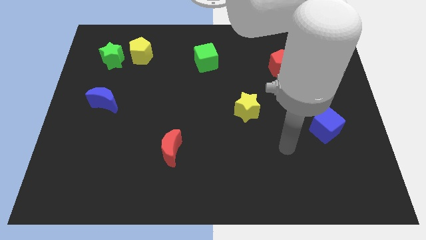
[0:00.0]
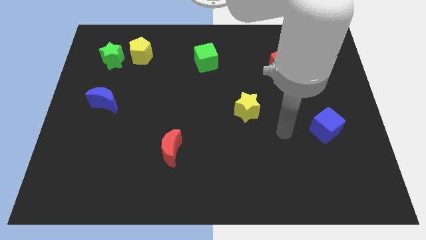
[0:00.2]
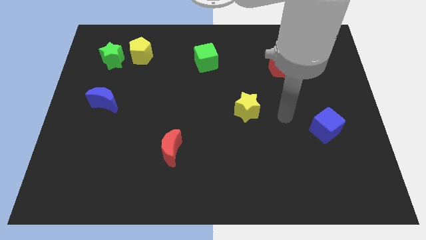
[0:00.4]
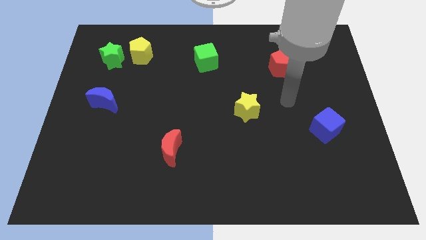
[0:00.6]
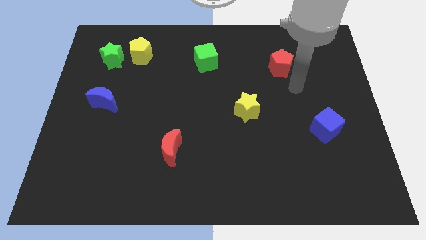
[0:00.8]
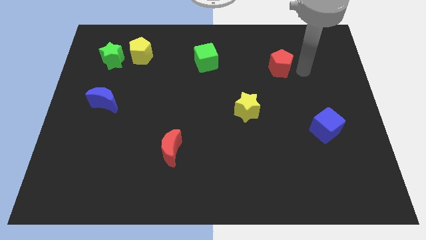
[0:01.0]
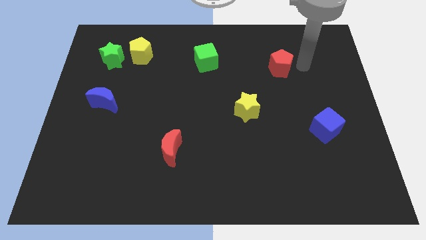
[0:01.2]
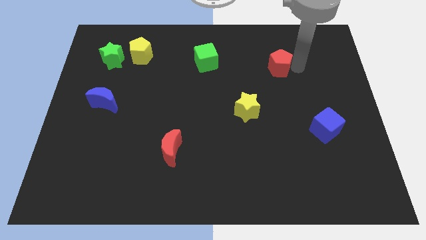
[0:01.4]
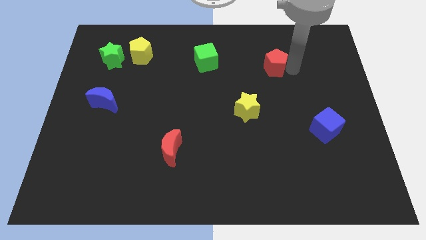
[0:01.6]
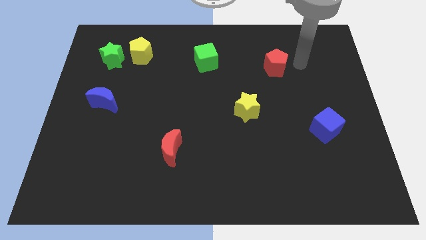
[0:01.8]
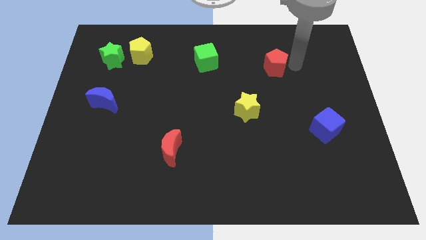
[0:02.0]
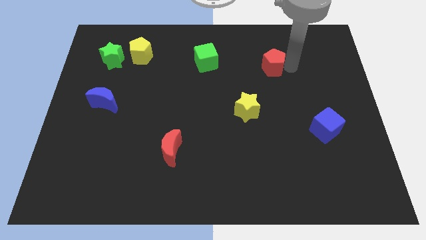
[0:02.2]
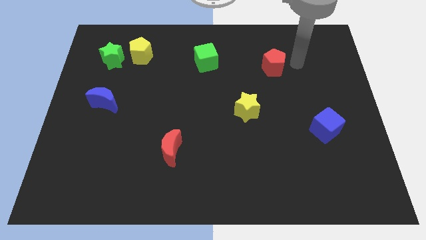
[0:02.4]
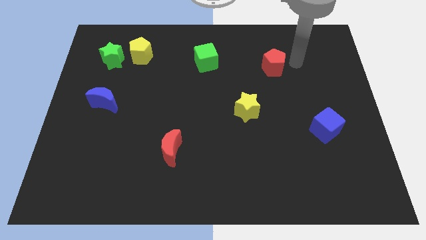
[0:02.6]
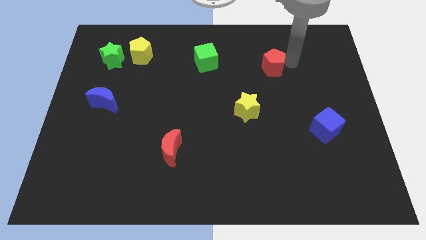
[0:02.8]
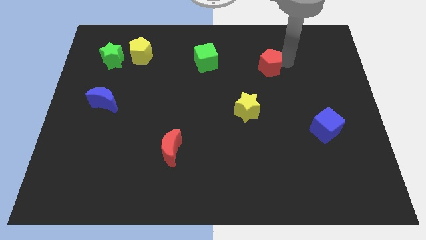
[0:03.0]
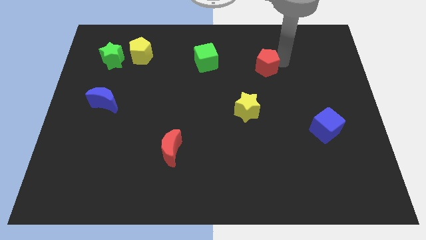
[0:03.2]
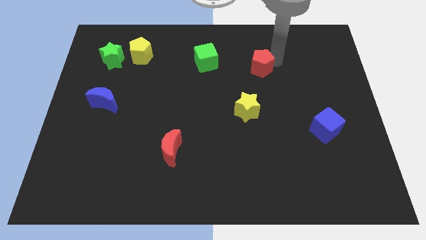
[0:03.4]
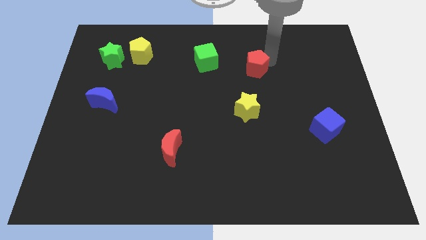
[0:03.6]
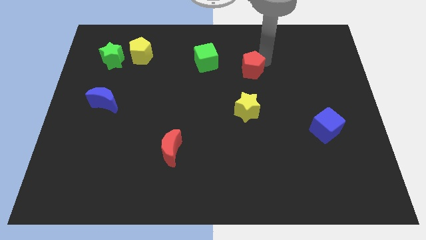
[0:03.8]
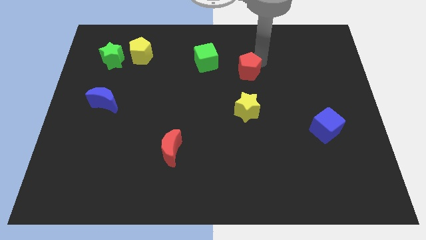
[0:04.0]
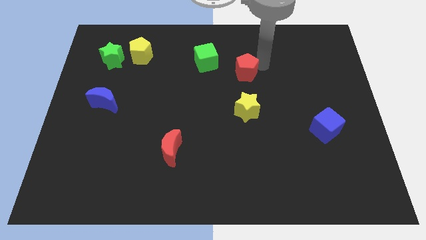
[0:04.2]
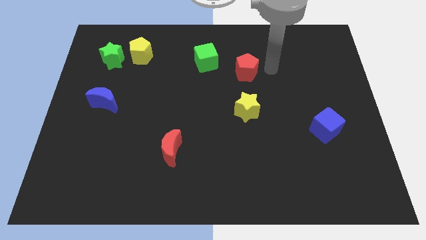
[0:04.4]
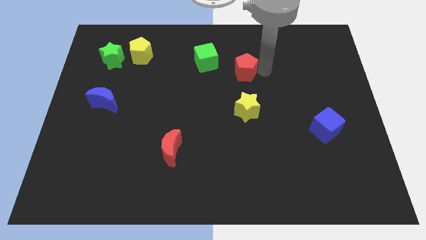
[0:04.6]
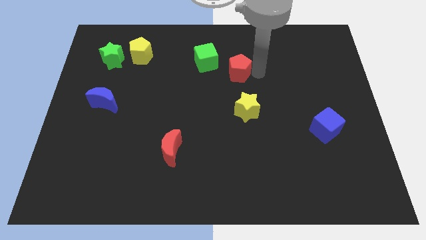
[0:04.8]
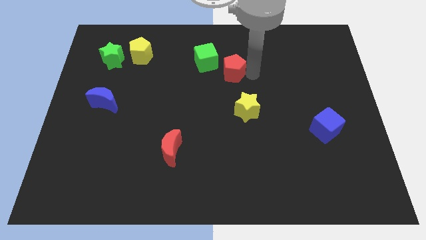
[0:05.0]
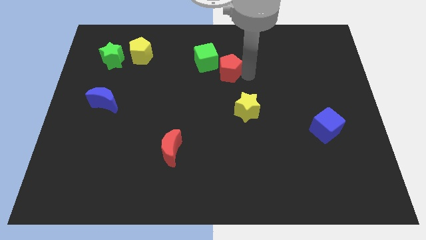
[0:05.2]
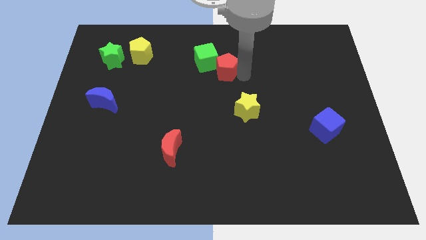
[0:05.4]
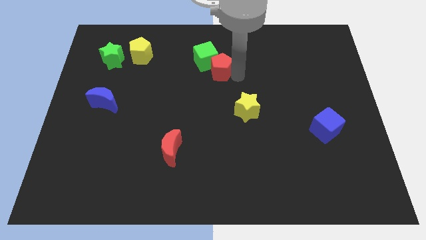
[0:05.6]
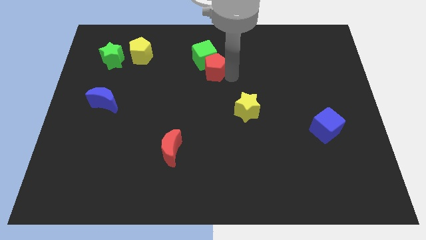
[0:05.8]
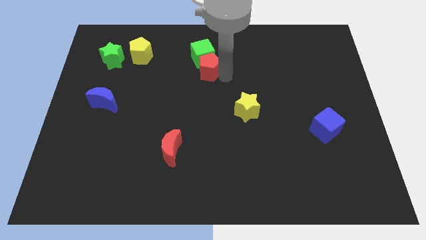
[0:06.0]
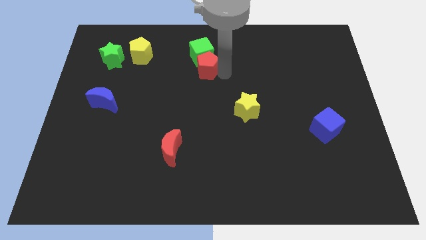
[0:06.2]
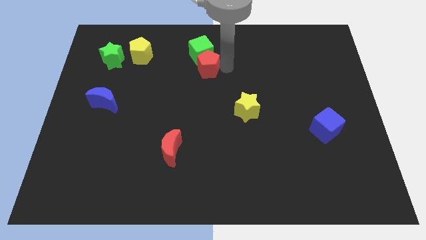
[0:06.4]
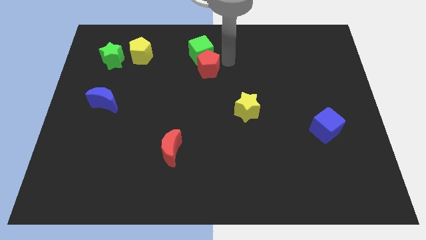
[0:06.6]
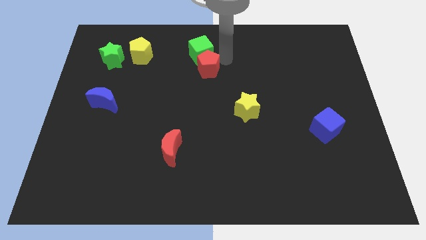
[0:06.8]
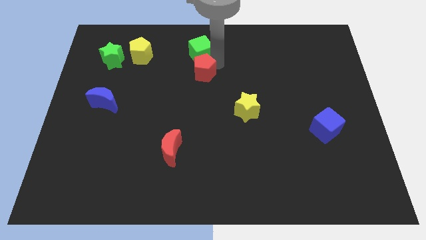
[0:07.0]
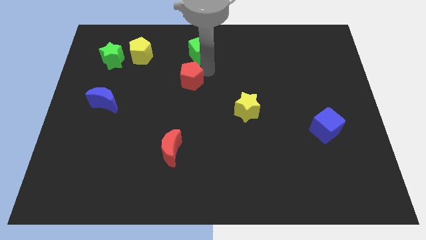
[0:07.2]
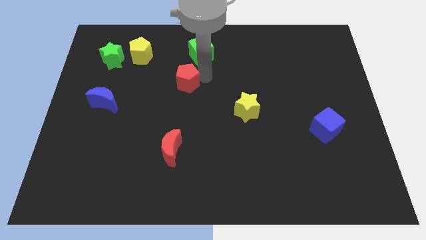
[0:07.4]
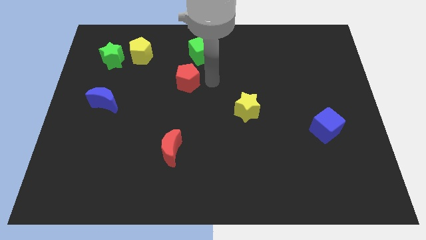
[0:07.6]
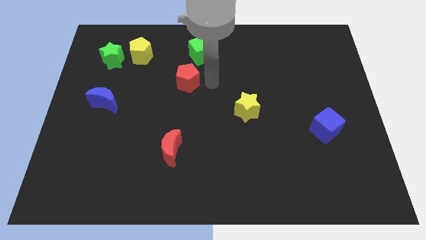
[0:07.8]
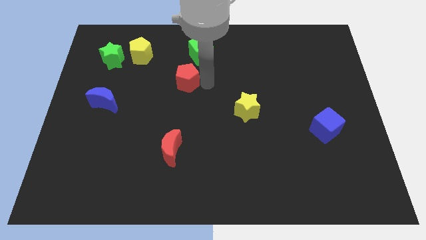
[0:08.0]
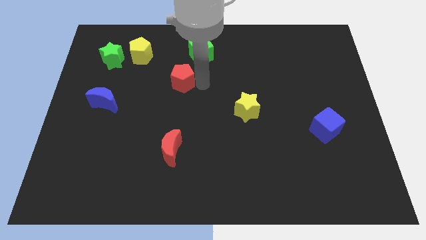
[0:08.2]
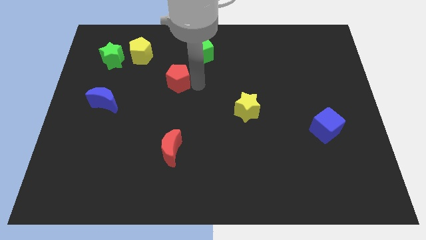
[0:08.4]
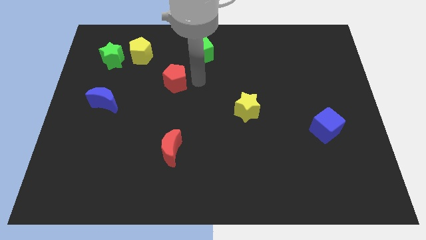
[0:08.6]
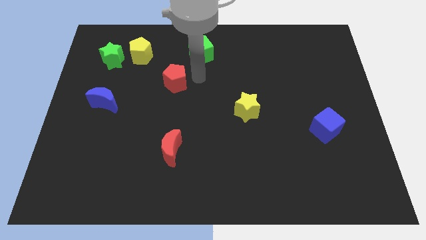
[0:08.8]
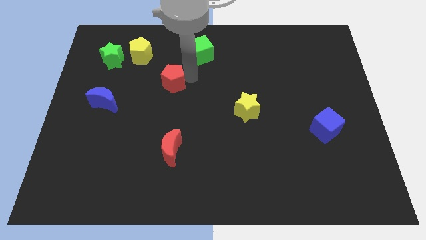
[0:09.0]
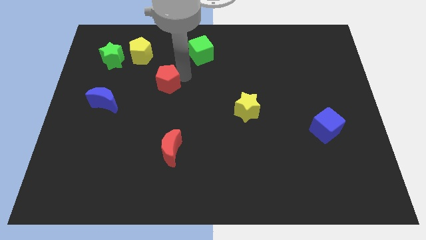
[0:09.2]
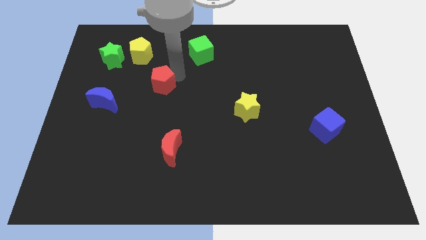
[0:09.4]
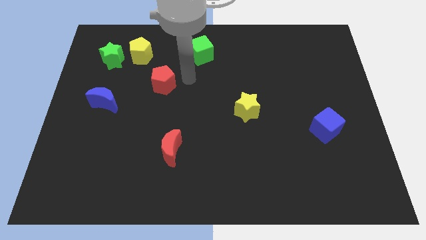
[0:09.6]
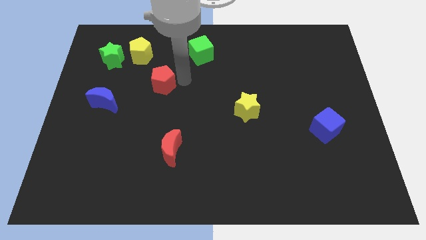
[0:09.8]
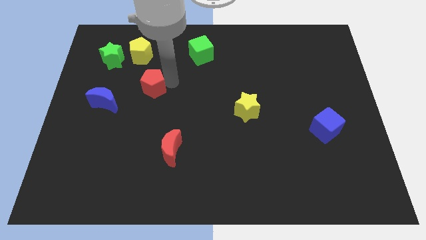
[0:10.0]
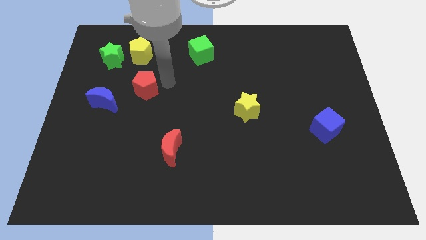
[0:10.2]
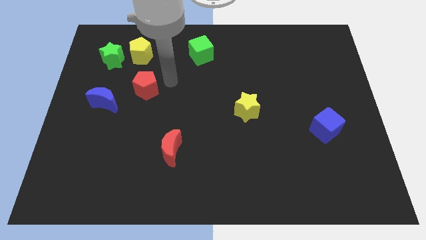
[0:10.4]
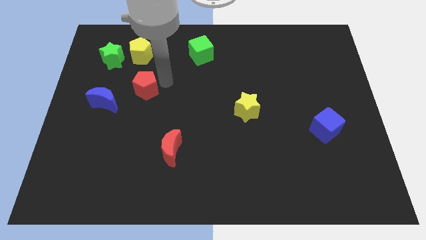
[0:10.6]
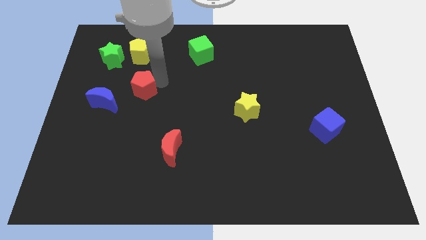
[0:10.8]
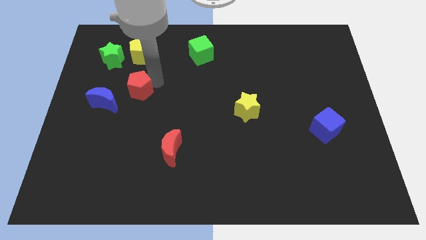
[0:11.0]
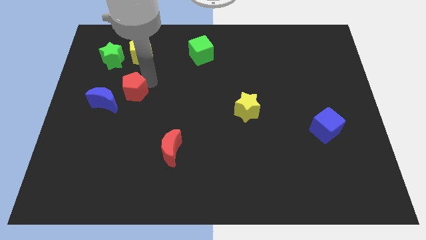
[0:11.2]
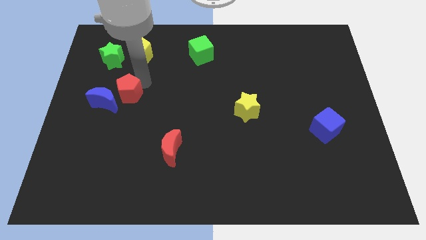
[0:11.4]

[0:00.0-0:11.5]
push the red pentagon towards the blue moon
